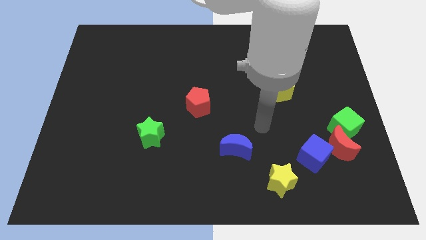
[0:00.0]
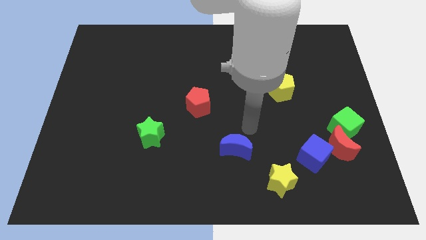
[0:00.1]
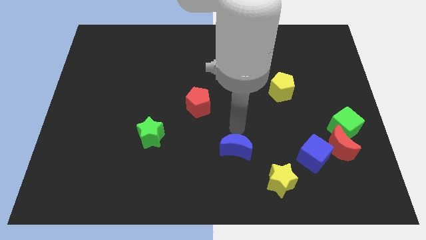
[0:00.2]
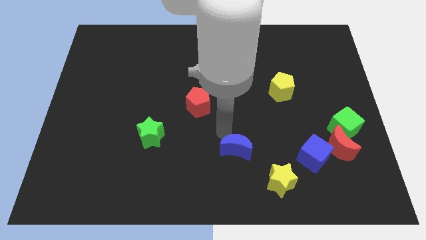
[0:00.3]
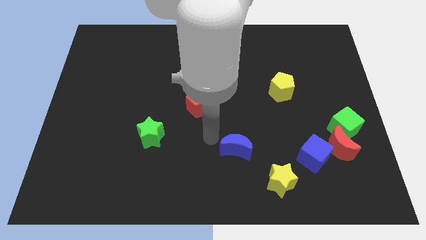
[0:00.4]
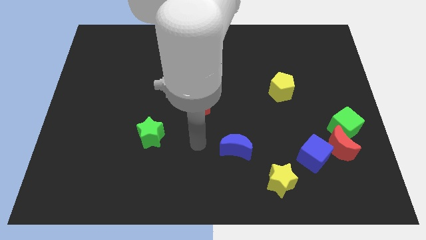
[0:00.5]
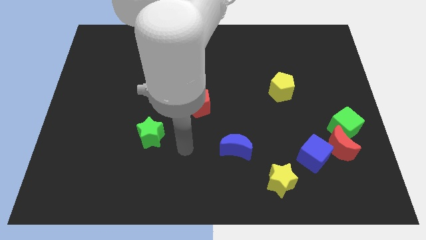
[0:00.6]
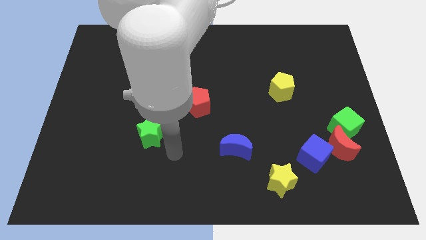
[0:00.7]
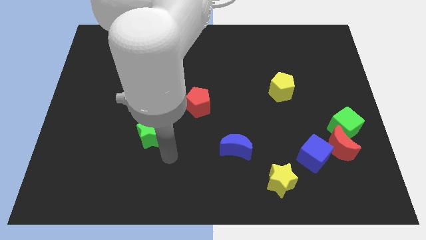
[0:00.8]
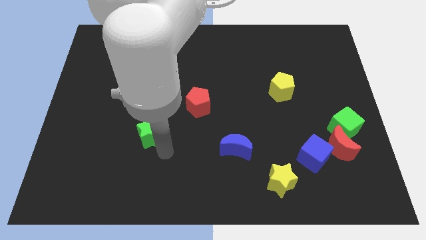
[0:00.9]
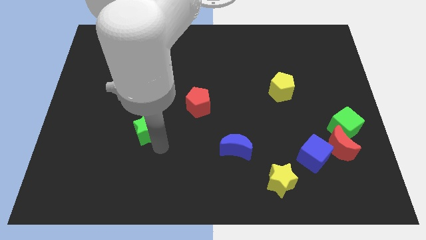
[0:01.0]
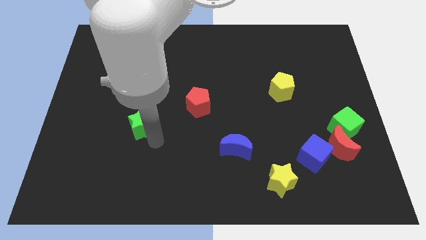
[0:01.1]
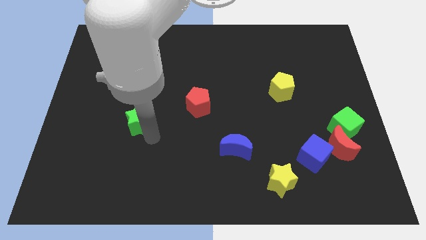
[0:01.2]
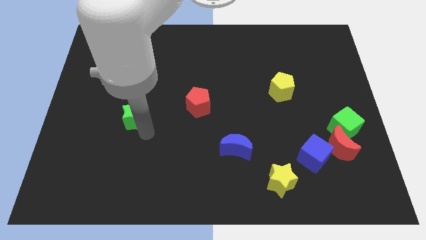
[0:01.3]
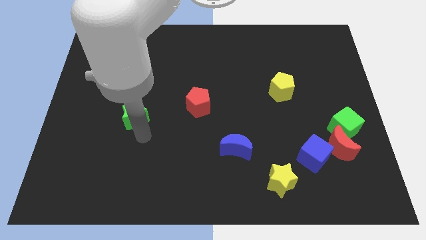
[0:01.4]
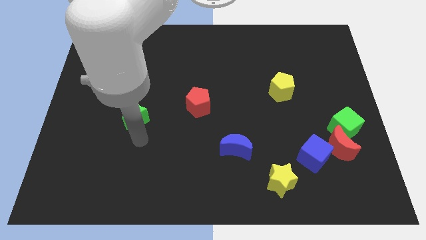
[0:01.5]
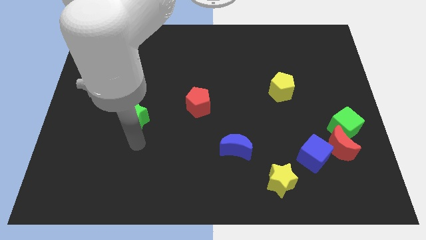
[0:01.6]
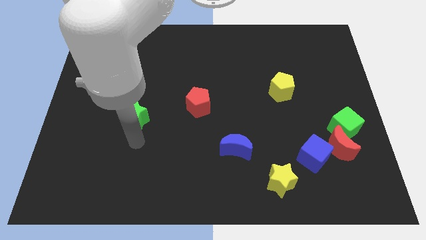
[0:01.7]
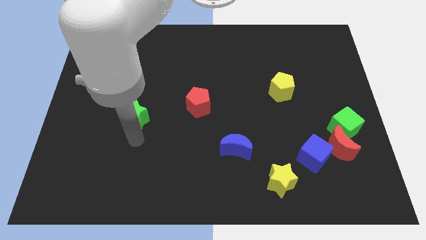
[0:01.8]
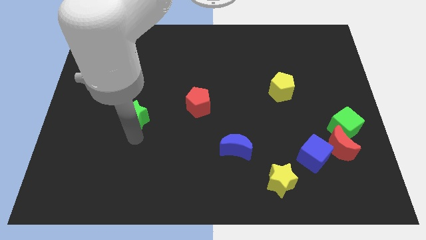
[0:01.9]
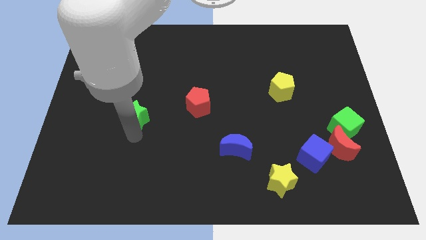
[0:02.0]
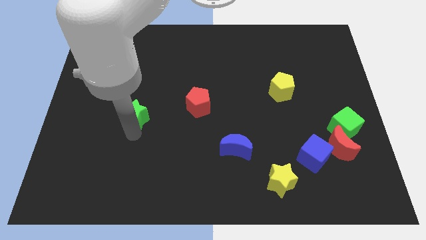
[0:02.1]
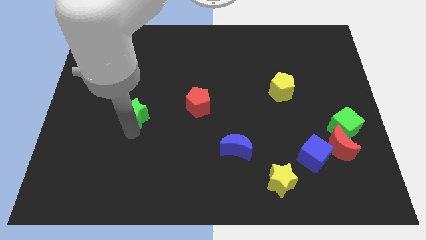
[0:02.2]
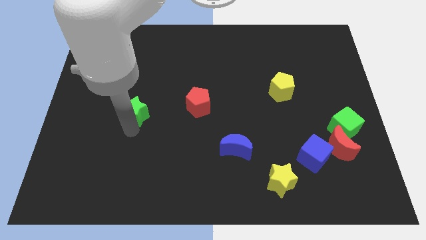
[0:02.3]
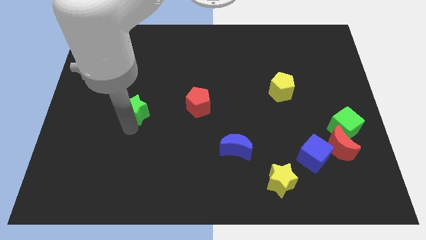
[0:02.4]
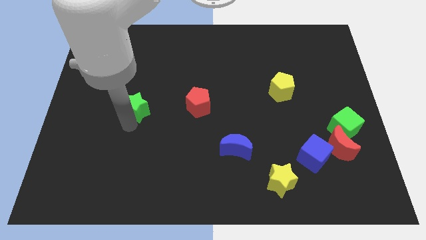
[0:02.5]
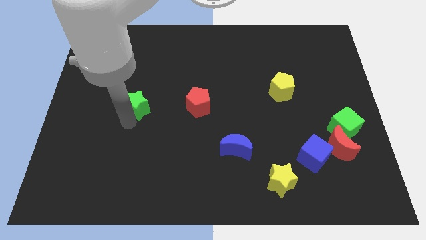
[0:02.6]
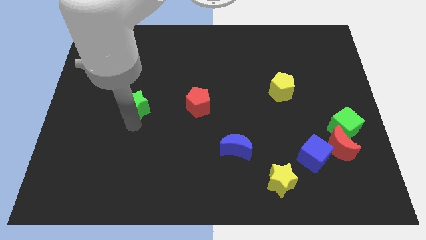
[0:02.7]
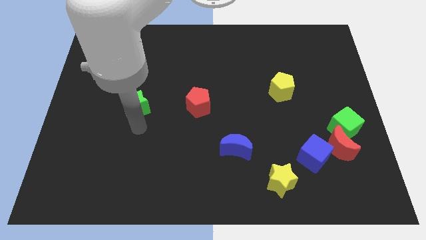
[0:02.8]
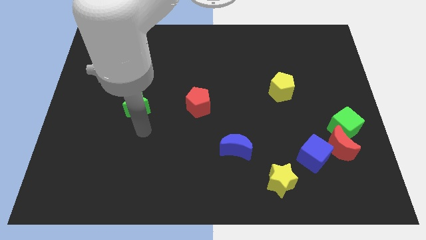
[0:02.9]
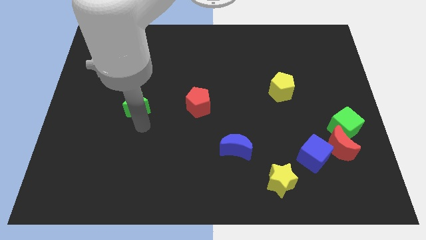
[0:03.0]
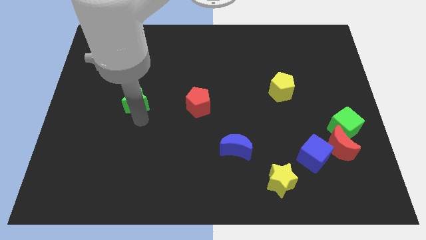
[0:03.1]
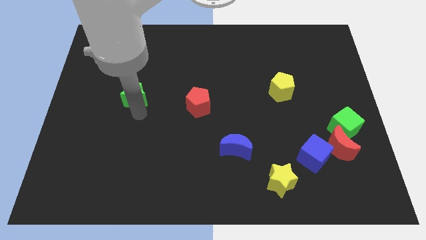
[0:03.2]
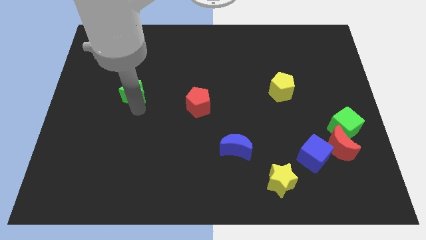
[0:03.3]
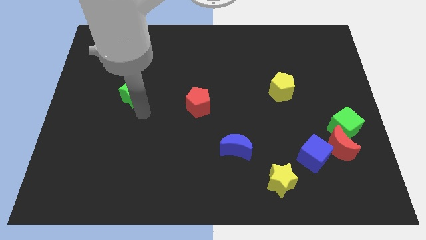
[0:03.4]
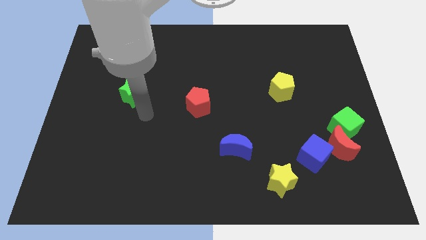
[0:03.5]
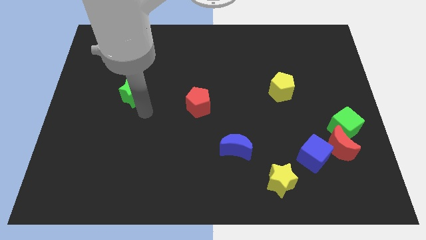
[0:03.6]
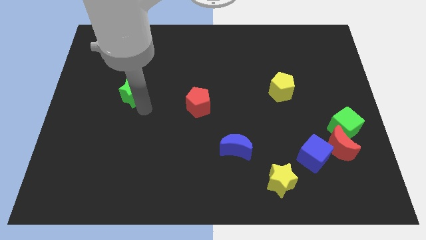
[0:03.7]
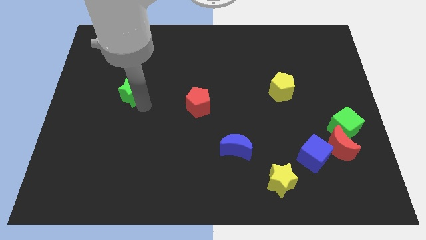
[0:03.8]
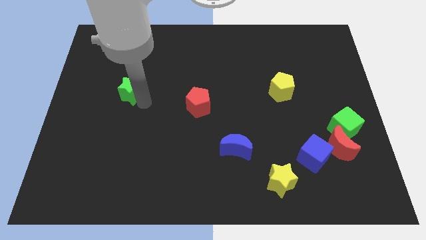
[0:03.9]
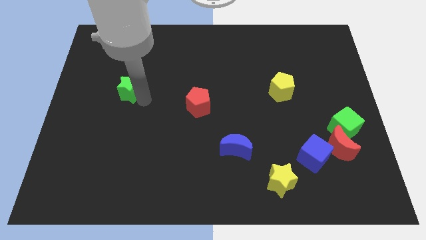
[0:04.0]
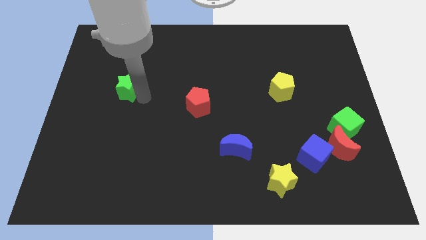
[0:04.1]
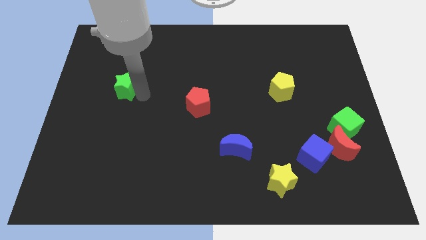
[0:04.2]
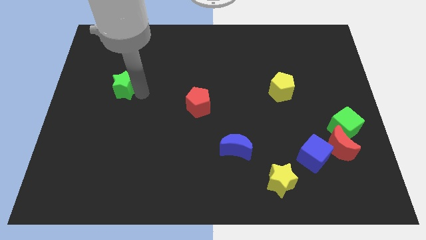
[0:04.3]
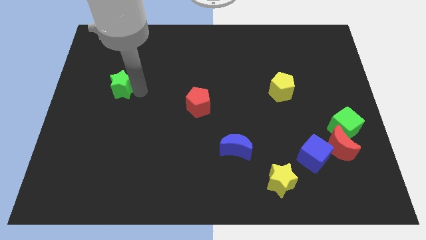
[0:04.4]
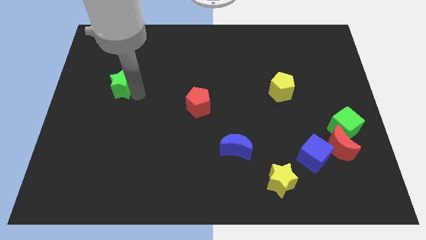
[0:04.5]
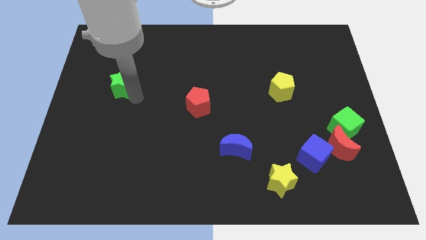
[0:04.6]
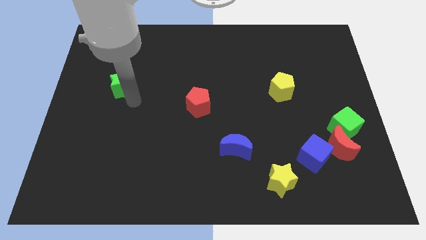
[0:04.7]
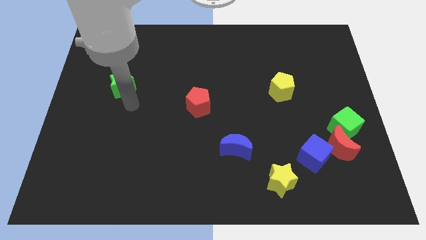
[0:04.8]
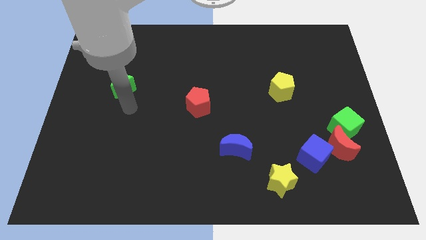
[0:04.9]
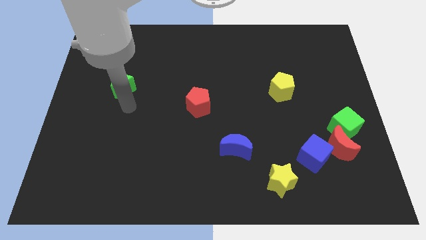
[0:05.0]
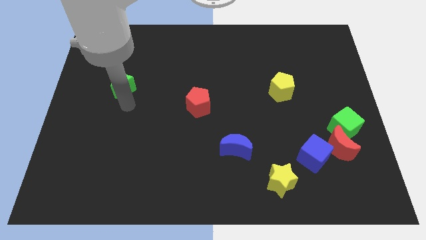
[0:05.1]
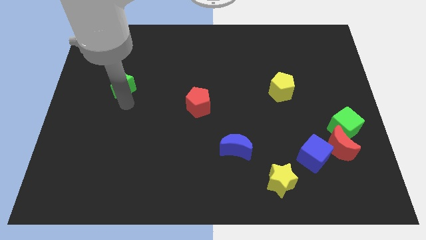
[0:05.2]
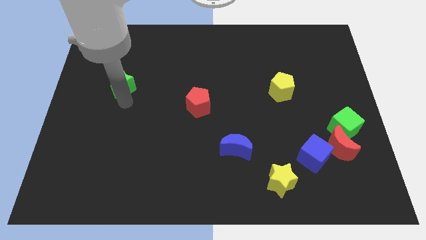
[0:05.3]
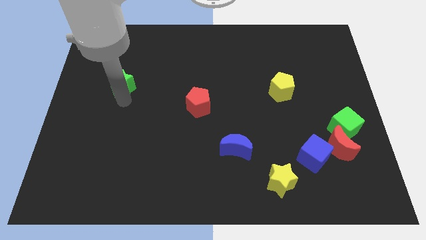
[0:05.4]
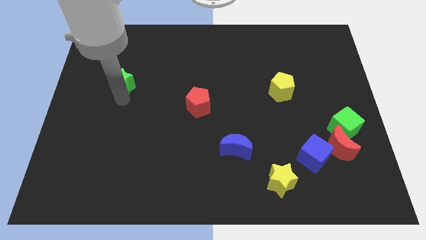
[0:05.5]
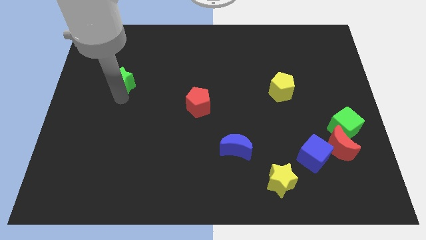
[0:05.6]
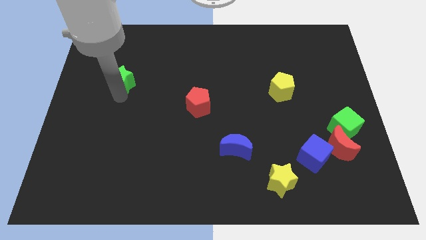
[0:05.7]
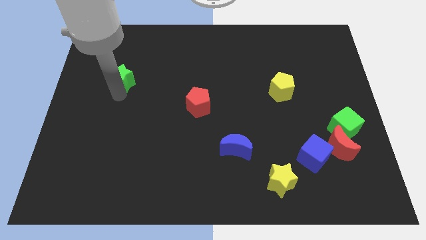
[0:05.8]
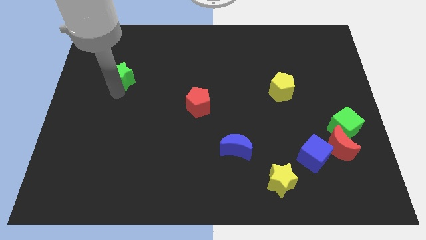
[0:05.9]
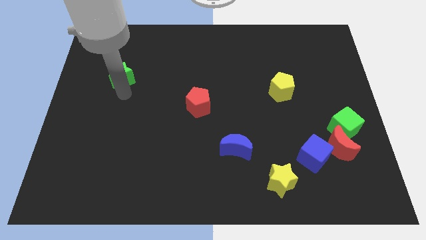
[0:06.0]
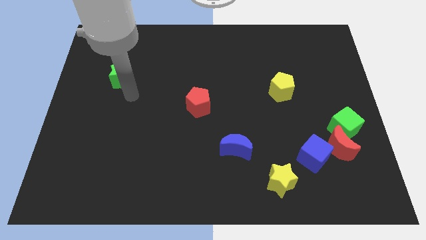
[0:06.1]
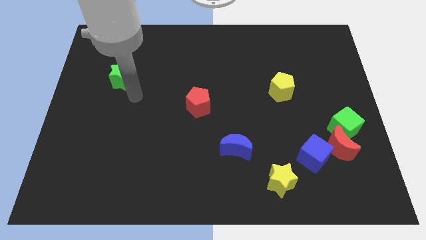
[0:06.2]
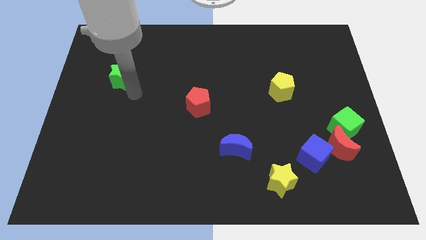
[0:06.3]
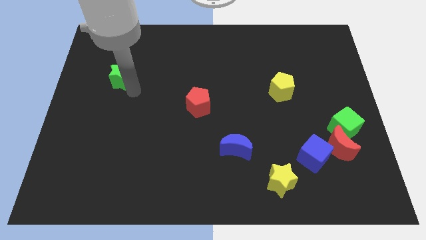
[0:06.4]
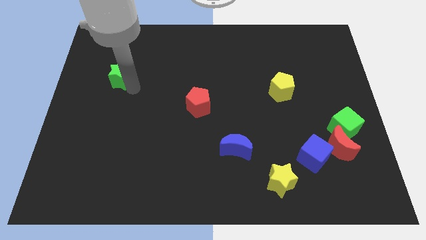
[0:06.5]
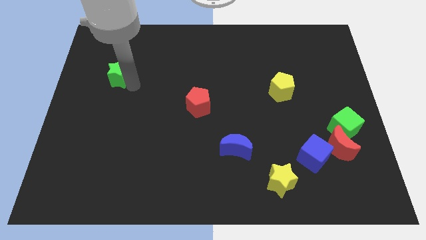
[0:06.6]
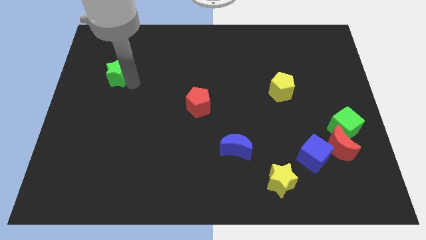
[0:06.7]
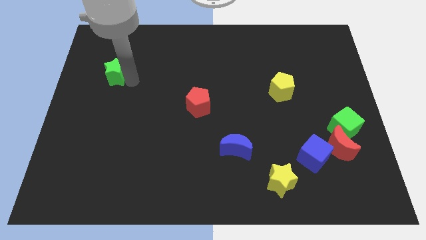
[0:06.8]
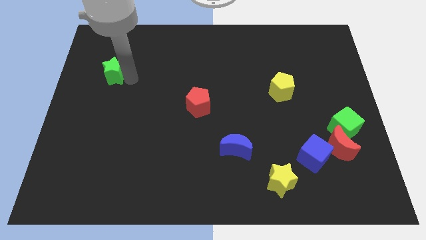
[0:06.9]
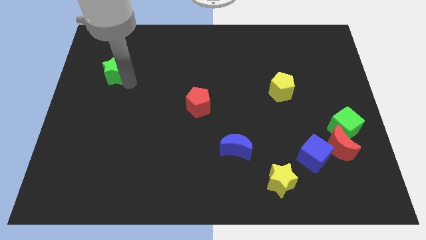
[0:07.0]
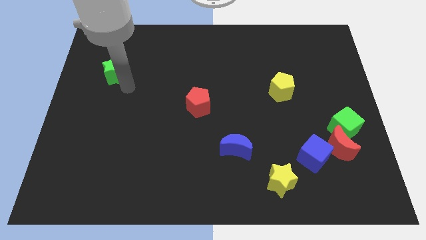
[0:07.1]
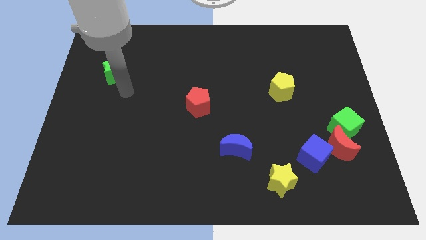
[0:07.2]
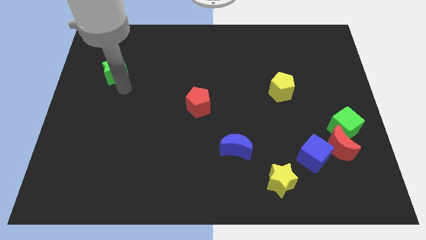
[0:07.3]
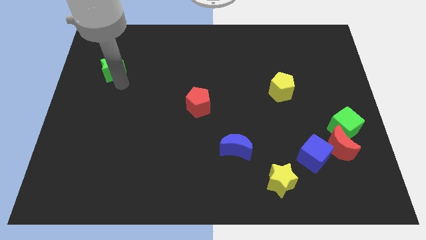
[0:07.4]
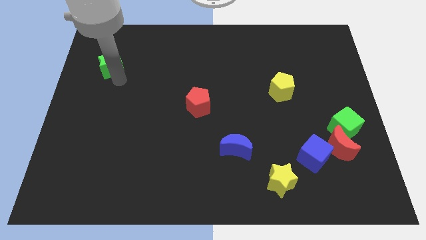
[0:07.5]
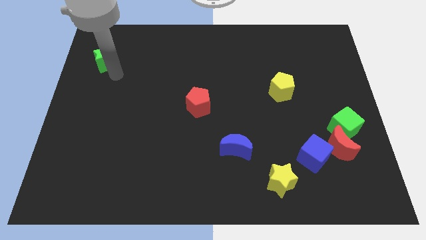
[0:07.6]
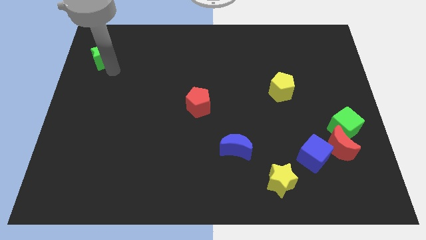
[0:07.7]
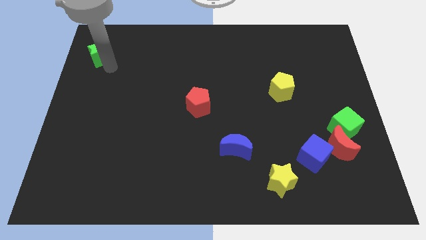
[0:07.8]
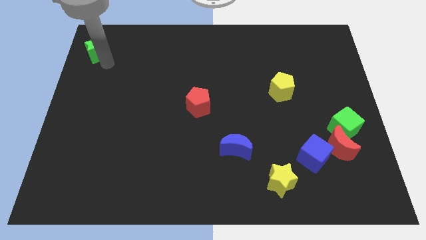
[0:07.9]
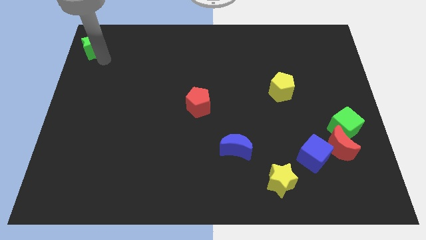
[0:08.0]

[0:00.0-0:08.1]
put the green star to the top left corner
